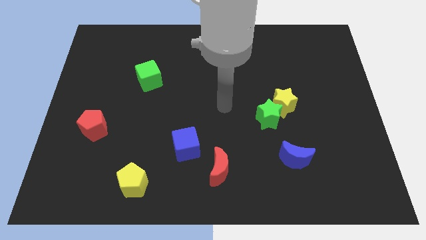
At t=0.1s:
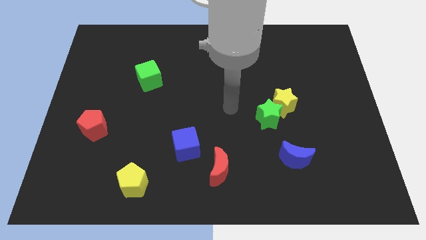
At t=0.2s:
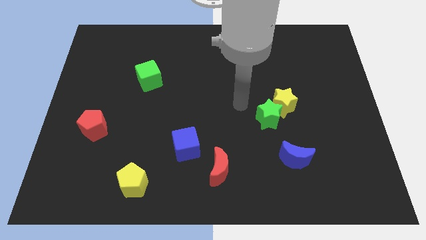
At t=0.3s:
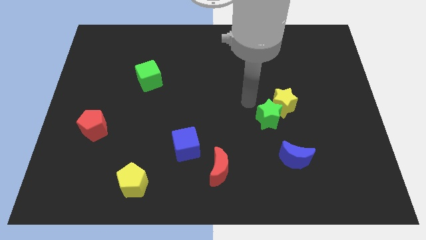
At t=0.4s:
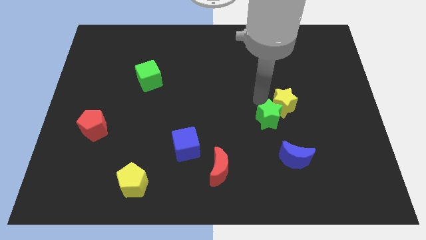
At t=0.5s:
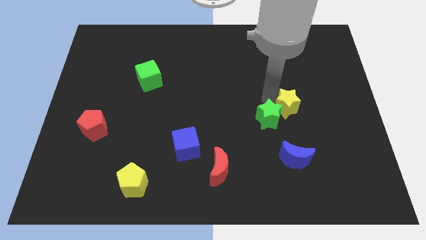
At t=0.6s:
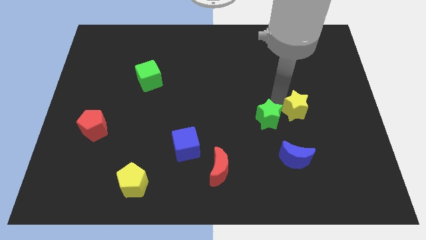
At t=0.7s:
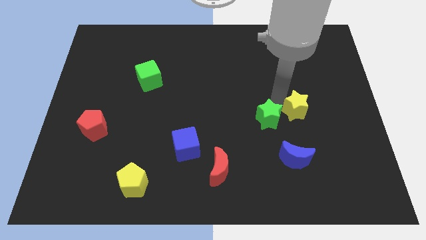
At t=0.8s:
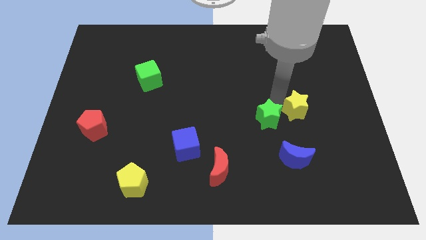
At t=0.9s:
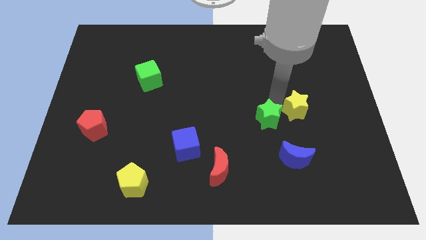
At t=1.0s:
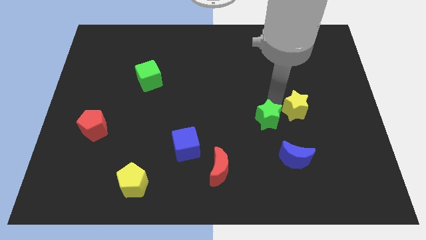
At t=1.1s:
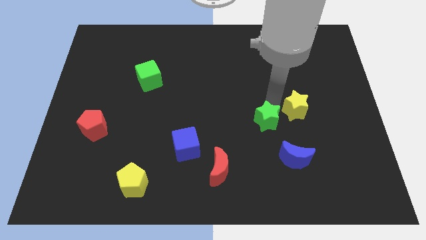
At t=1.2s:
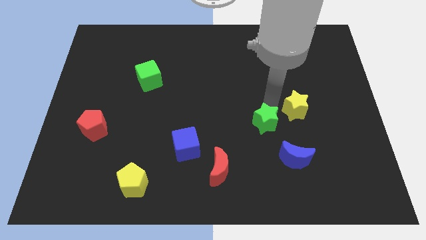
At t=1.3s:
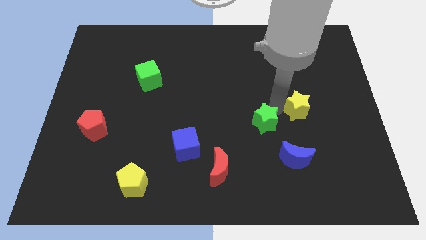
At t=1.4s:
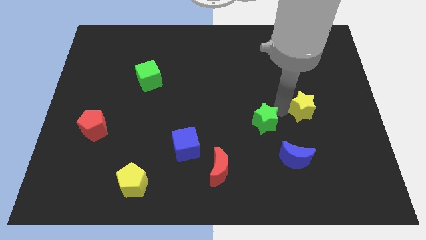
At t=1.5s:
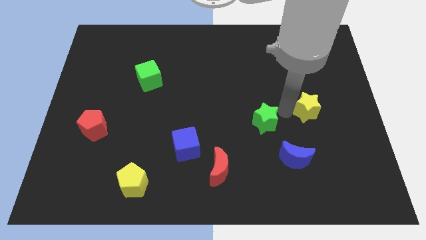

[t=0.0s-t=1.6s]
move the green star away from the yellow star

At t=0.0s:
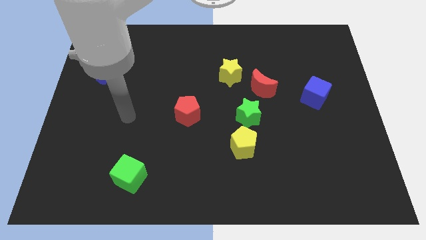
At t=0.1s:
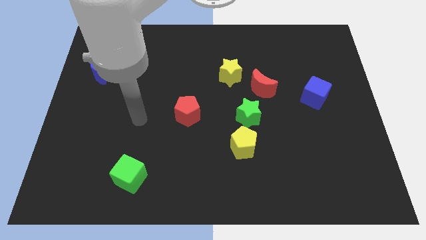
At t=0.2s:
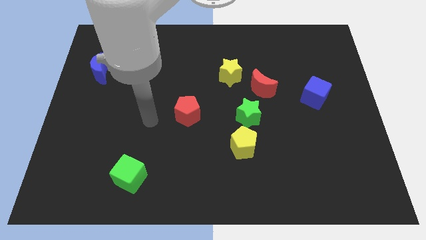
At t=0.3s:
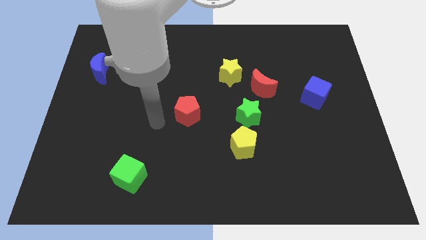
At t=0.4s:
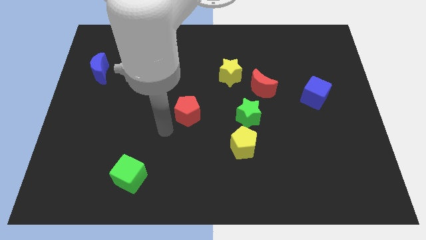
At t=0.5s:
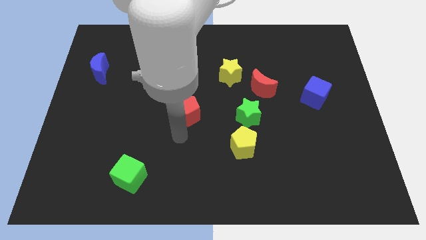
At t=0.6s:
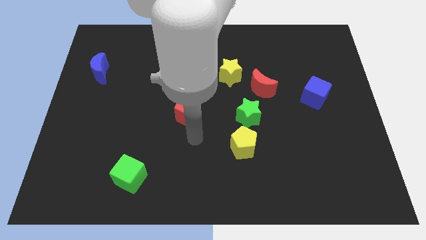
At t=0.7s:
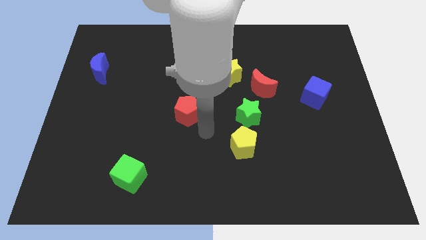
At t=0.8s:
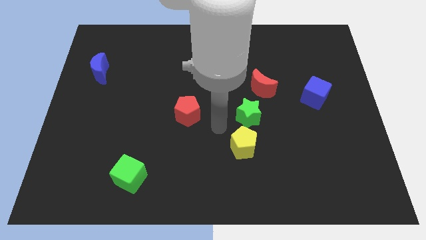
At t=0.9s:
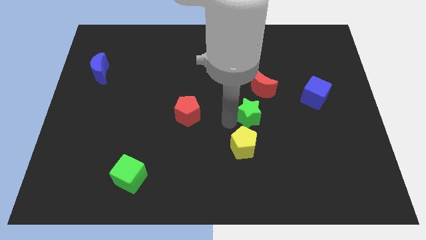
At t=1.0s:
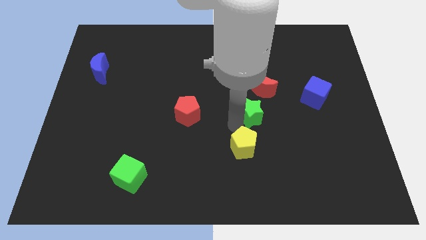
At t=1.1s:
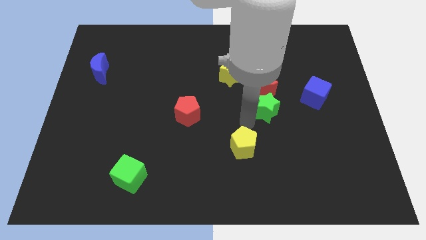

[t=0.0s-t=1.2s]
separate the yellow pentagon from the green star

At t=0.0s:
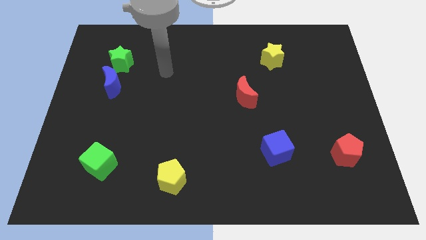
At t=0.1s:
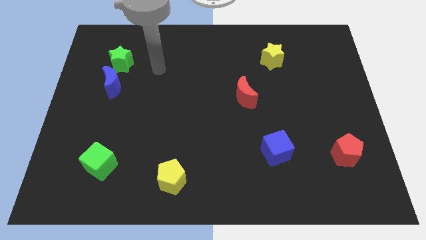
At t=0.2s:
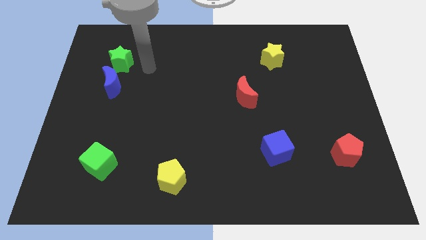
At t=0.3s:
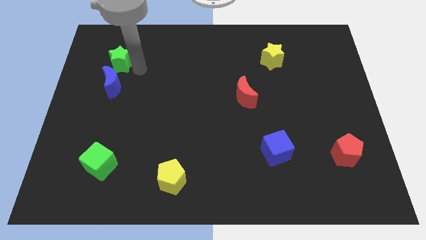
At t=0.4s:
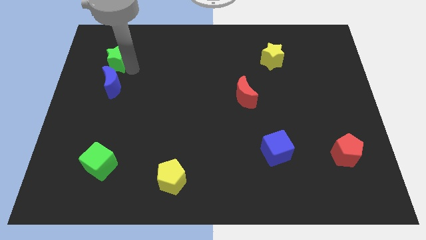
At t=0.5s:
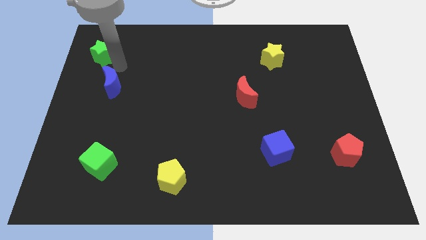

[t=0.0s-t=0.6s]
separate the blue moon from the green star

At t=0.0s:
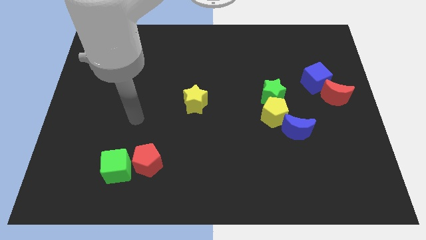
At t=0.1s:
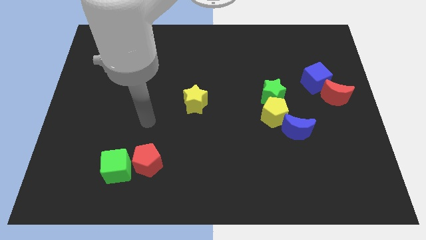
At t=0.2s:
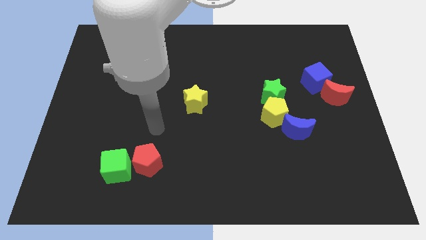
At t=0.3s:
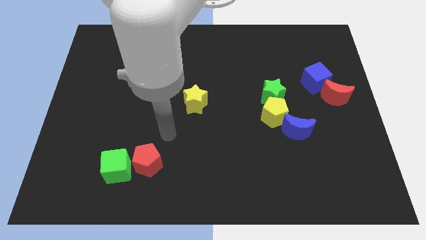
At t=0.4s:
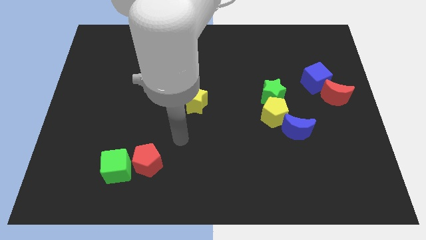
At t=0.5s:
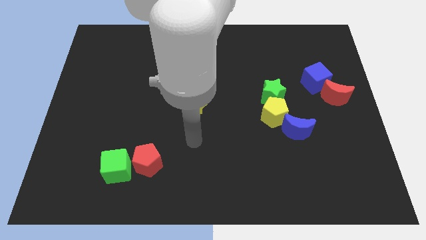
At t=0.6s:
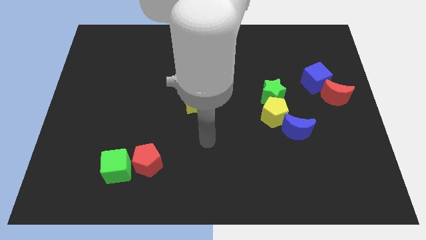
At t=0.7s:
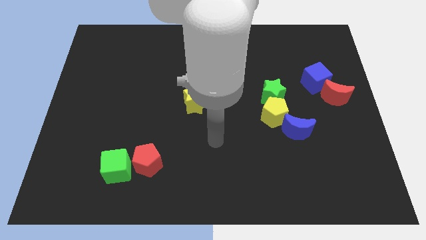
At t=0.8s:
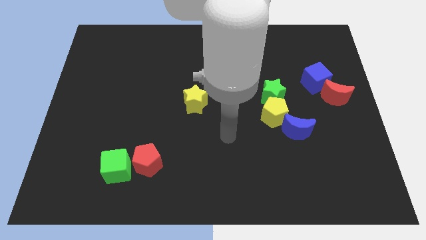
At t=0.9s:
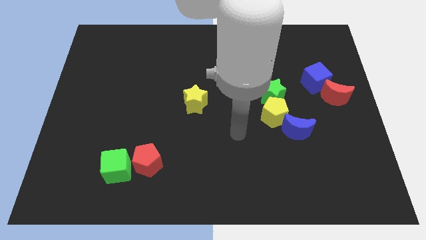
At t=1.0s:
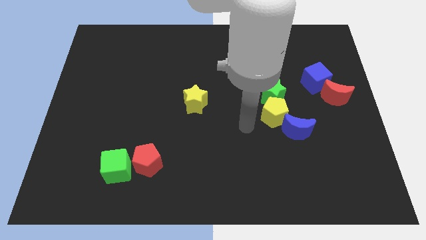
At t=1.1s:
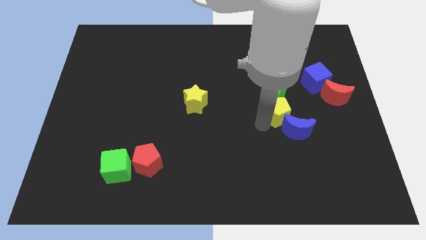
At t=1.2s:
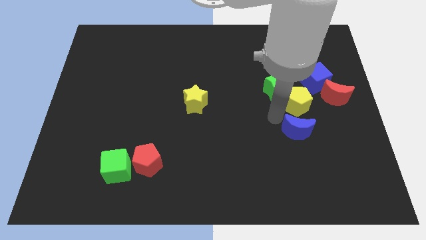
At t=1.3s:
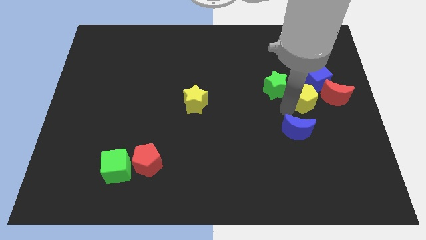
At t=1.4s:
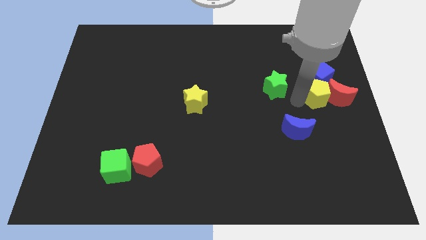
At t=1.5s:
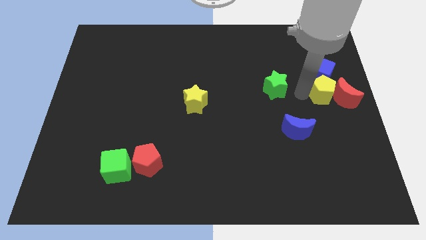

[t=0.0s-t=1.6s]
pull the green star apart from the yellow pentagon

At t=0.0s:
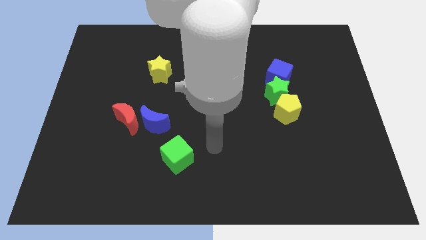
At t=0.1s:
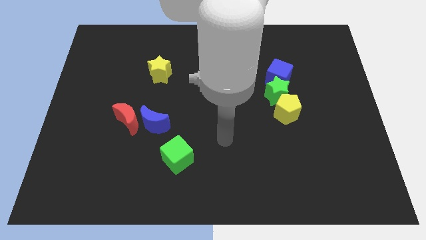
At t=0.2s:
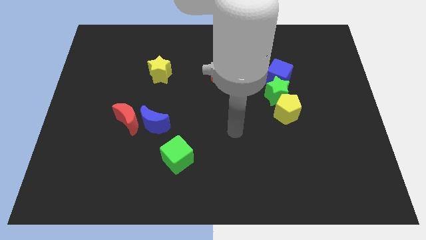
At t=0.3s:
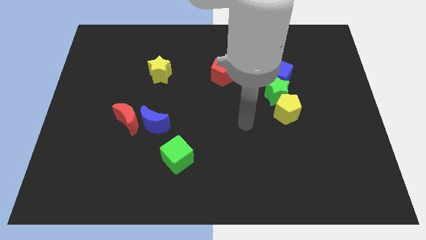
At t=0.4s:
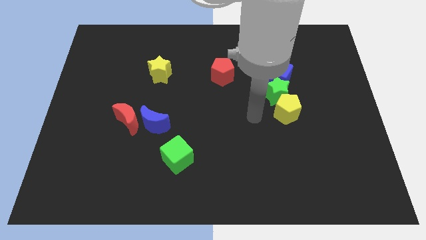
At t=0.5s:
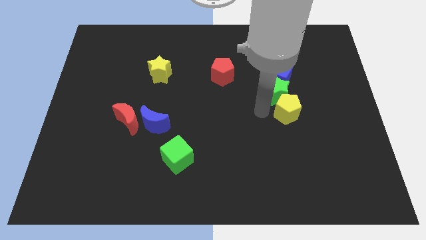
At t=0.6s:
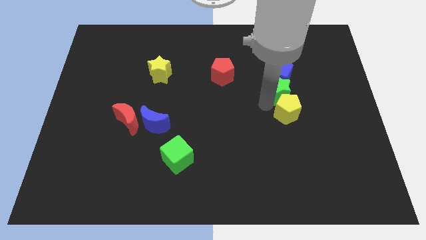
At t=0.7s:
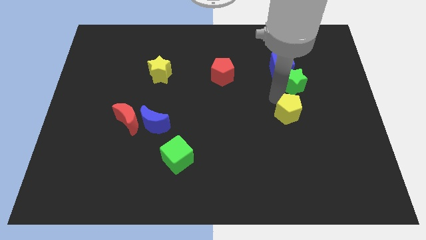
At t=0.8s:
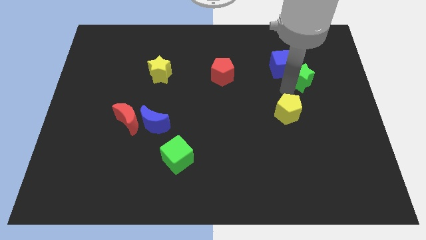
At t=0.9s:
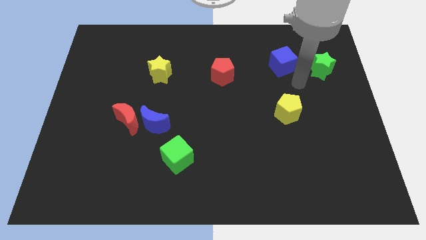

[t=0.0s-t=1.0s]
separate the blue cube from the green star

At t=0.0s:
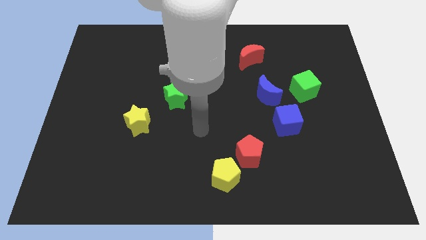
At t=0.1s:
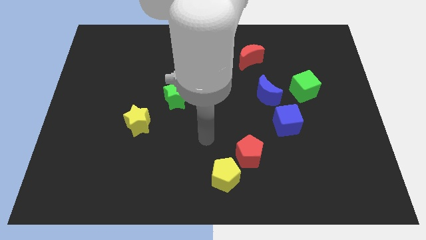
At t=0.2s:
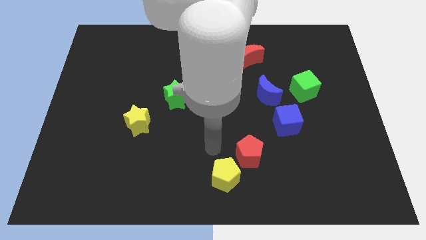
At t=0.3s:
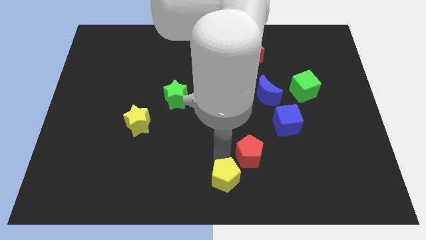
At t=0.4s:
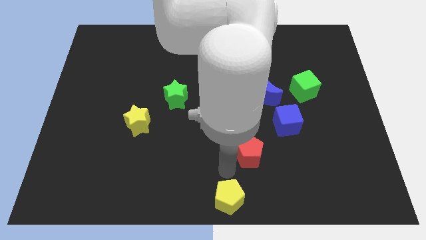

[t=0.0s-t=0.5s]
separate the red pentagon from the yellow pentagon

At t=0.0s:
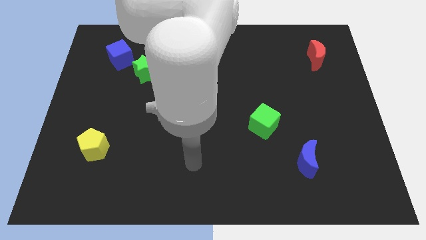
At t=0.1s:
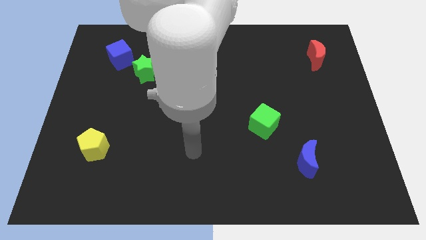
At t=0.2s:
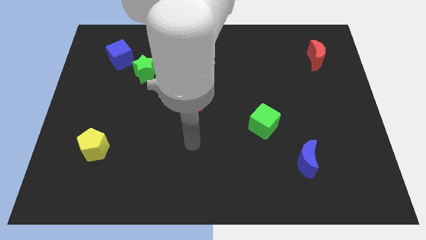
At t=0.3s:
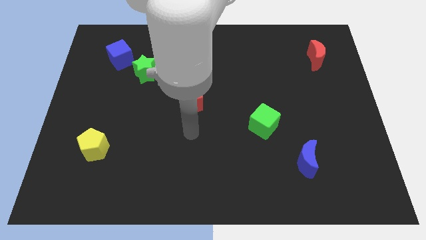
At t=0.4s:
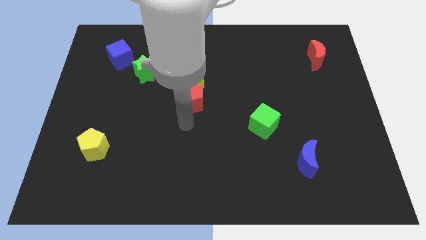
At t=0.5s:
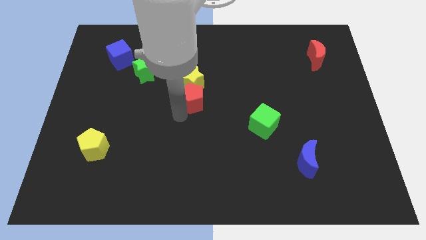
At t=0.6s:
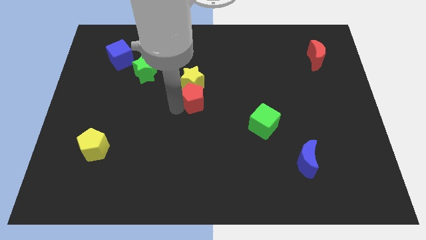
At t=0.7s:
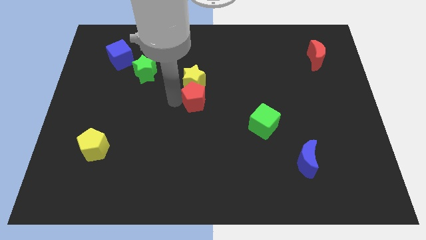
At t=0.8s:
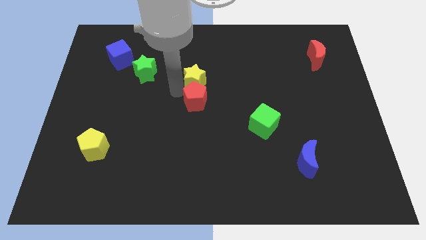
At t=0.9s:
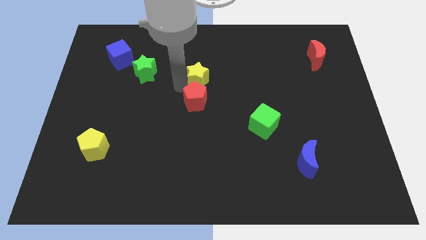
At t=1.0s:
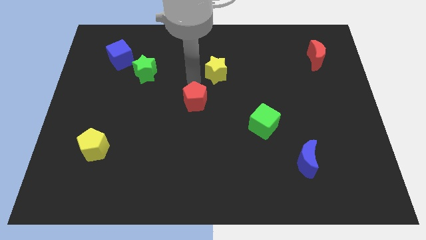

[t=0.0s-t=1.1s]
pull the red pentagon apart from the yellow star

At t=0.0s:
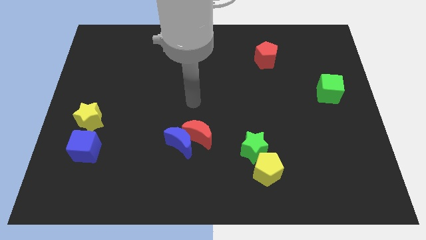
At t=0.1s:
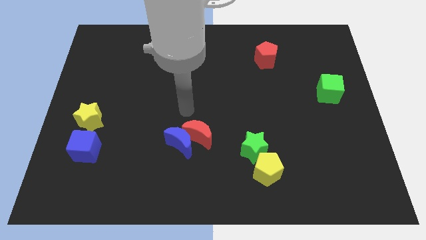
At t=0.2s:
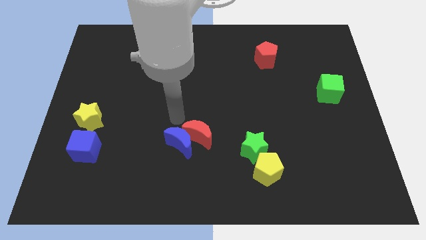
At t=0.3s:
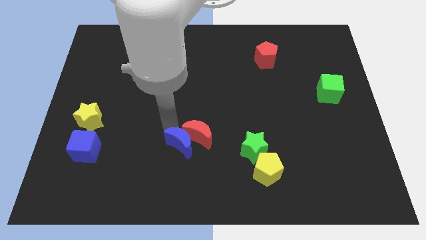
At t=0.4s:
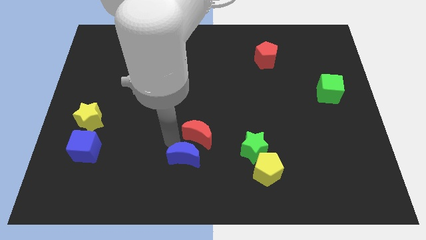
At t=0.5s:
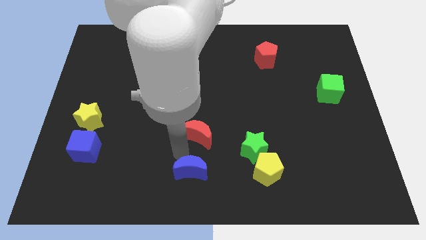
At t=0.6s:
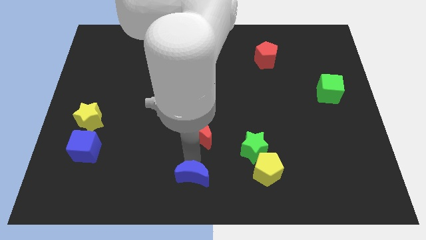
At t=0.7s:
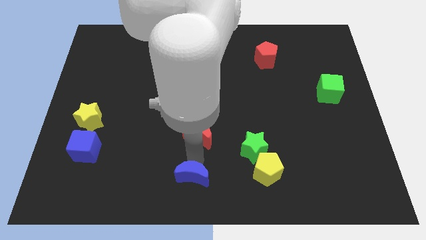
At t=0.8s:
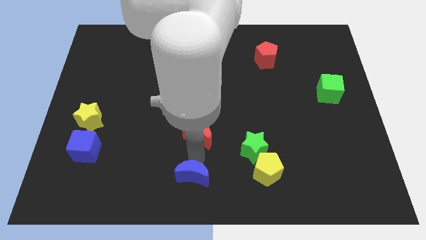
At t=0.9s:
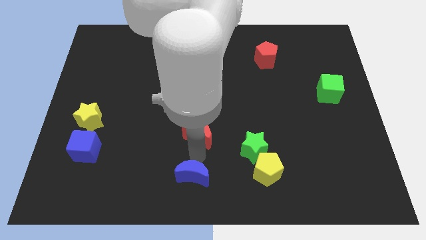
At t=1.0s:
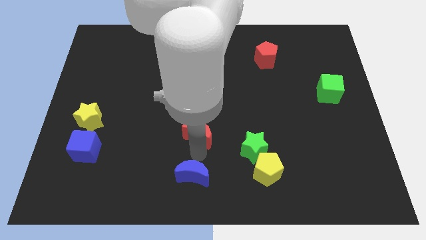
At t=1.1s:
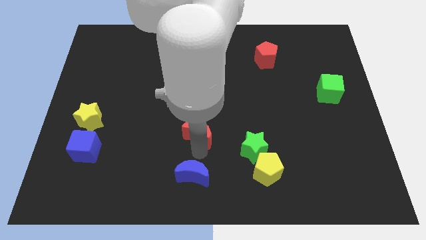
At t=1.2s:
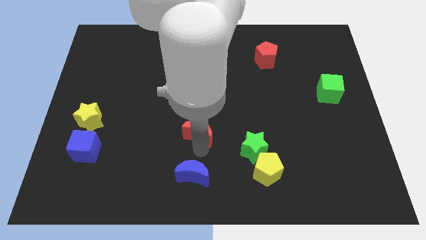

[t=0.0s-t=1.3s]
separate the red moon from the blue moon

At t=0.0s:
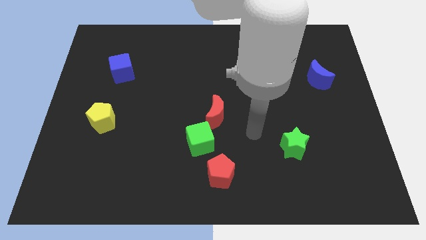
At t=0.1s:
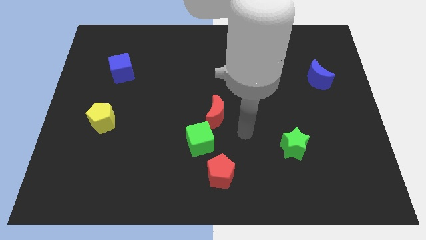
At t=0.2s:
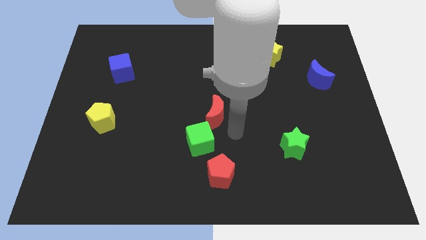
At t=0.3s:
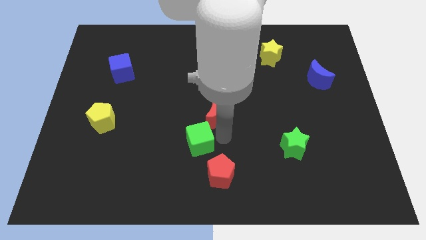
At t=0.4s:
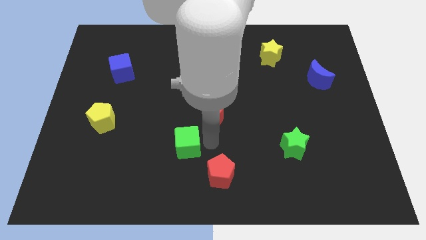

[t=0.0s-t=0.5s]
move the red moon away from the green cube
